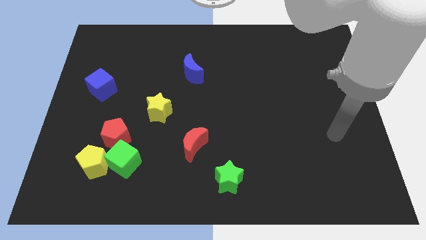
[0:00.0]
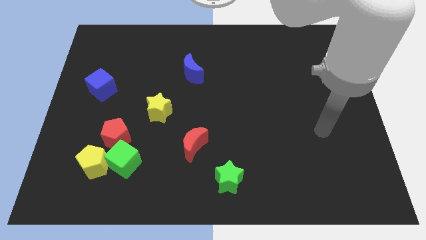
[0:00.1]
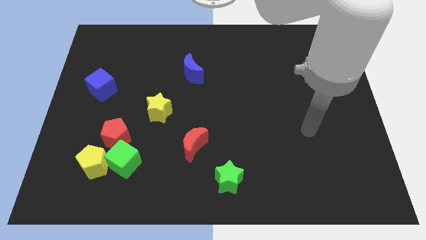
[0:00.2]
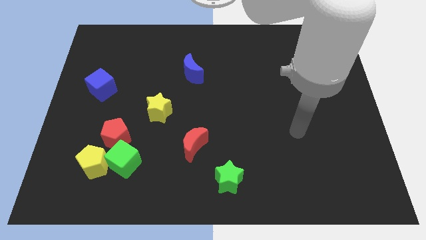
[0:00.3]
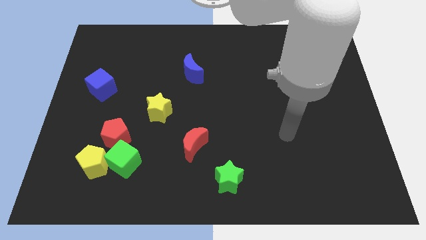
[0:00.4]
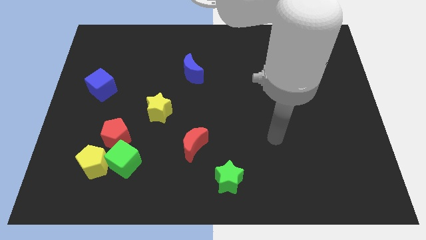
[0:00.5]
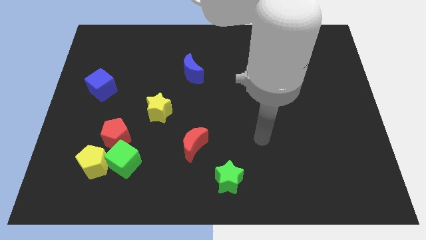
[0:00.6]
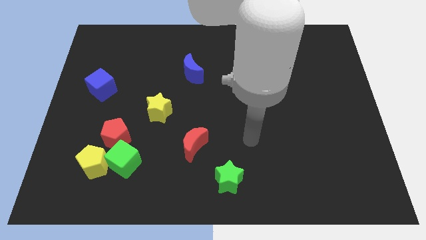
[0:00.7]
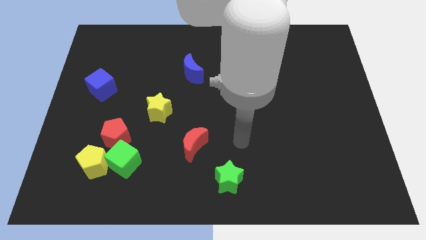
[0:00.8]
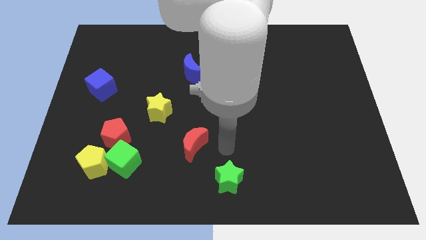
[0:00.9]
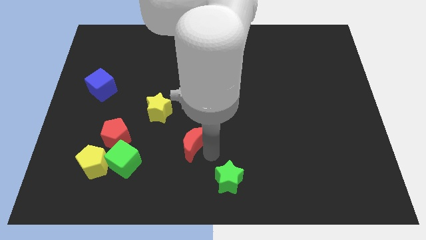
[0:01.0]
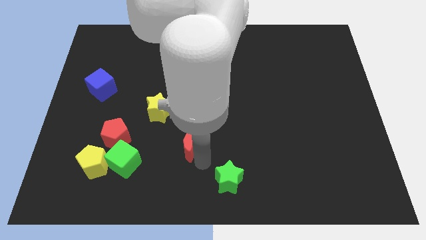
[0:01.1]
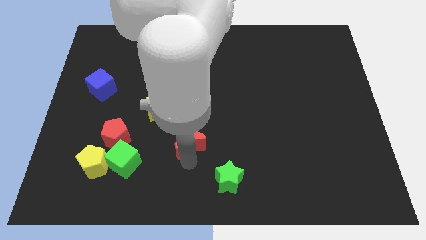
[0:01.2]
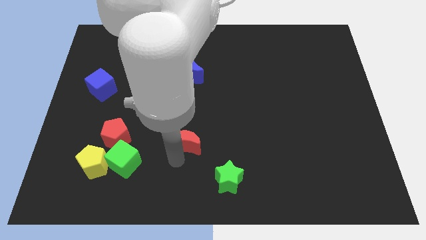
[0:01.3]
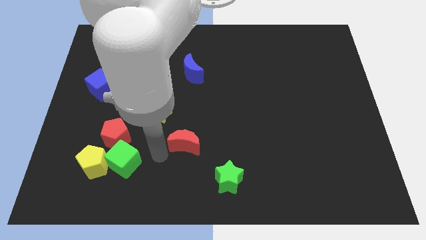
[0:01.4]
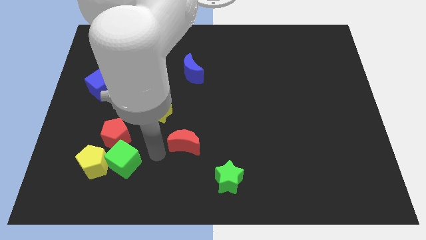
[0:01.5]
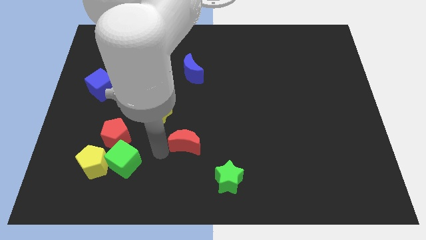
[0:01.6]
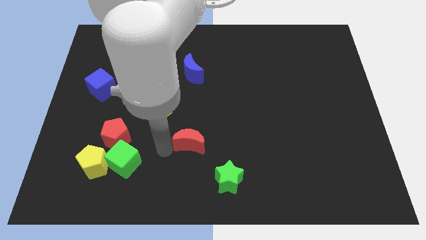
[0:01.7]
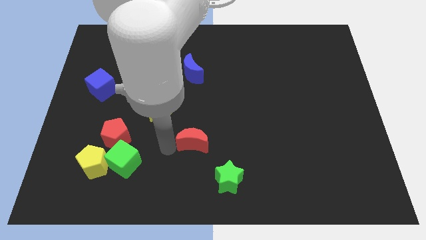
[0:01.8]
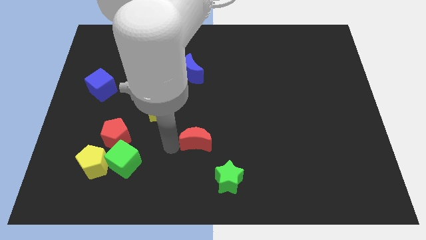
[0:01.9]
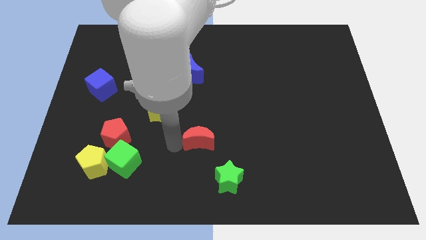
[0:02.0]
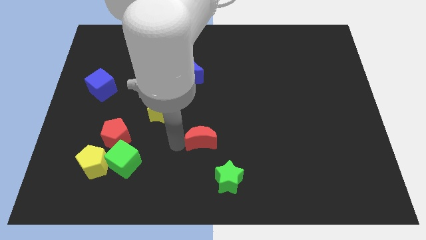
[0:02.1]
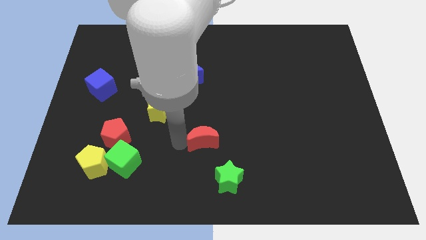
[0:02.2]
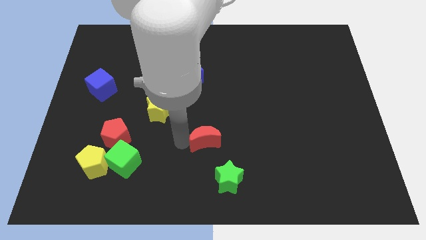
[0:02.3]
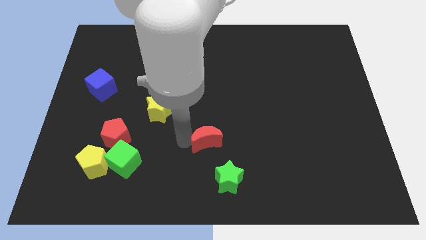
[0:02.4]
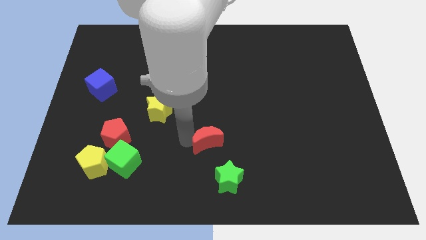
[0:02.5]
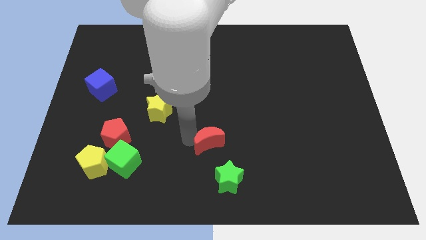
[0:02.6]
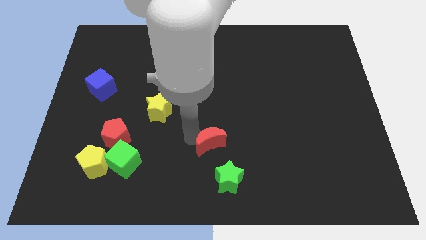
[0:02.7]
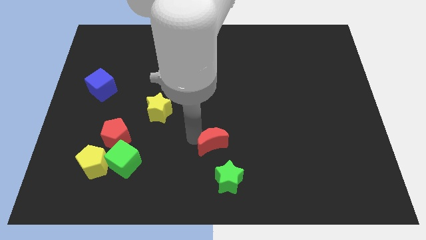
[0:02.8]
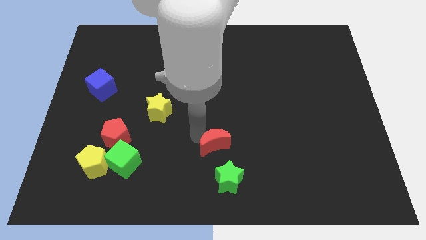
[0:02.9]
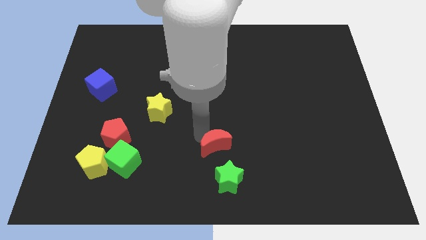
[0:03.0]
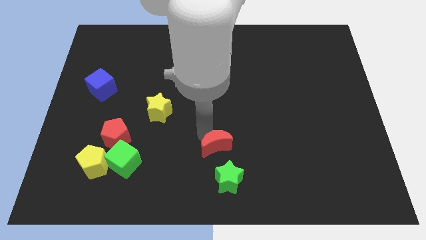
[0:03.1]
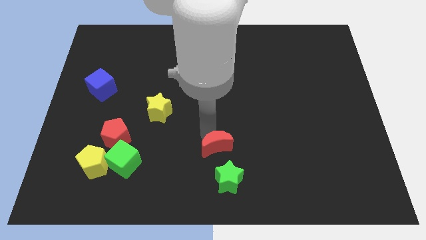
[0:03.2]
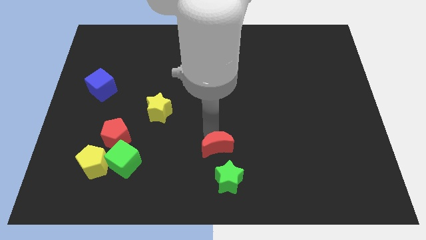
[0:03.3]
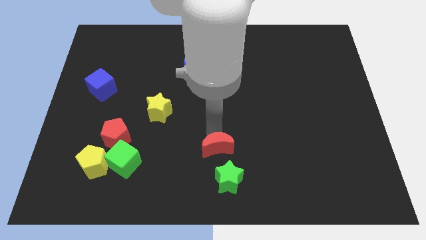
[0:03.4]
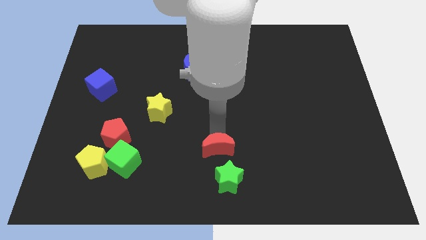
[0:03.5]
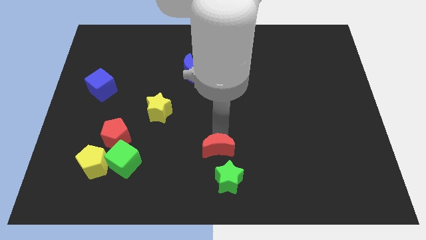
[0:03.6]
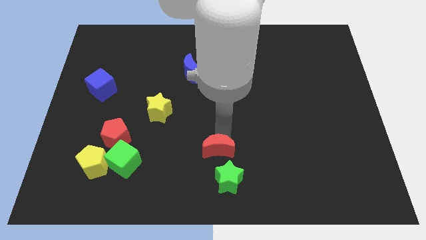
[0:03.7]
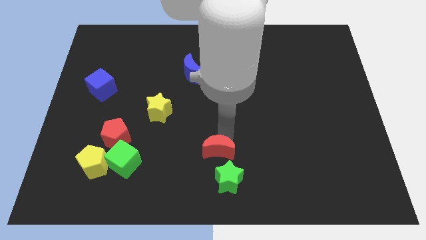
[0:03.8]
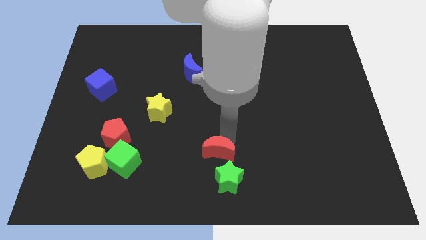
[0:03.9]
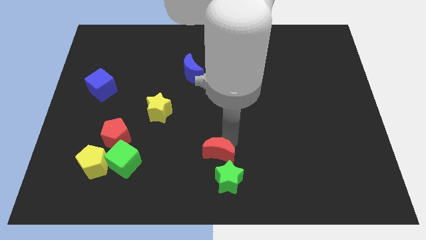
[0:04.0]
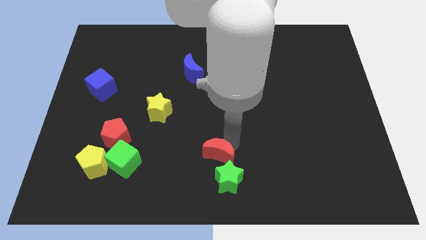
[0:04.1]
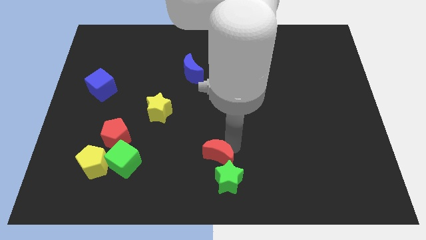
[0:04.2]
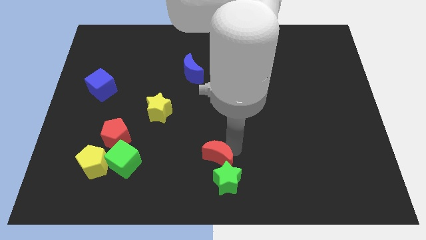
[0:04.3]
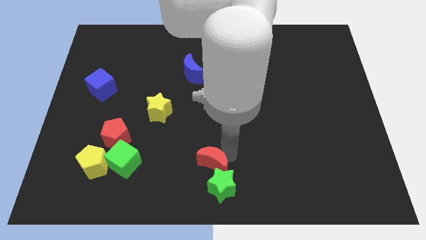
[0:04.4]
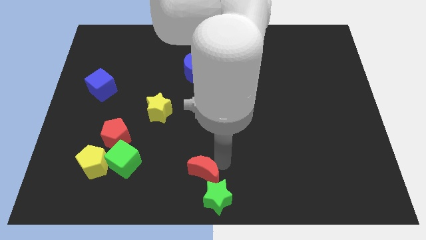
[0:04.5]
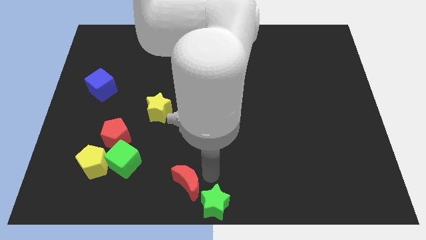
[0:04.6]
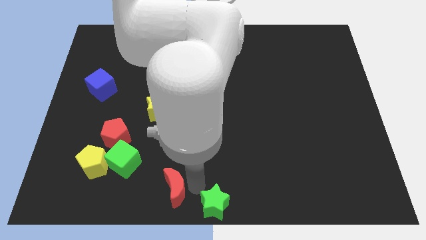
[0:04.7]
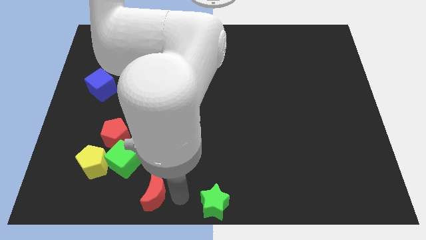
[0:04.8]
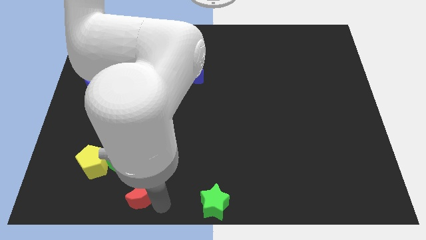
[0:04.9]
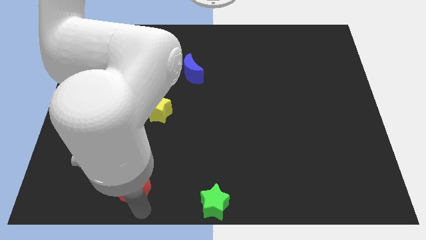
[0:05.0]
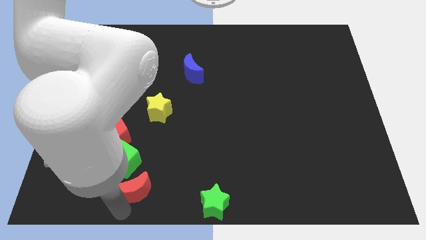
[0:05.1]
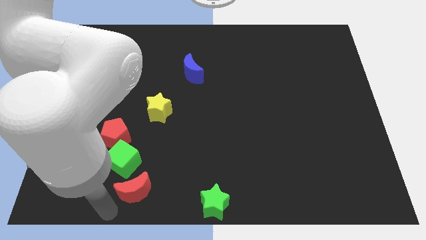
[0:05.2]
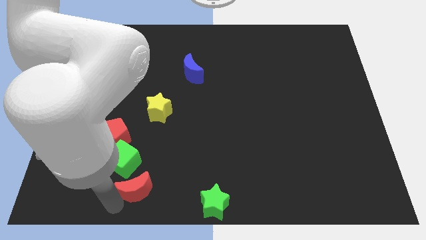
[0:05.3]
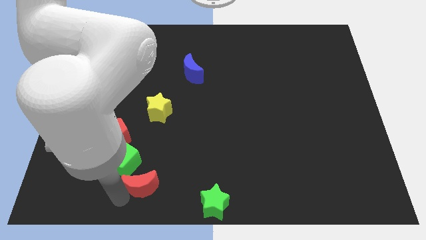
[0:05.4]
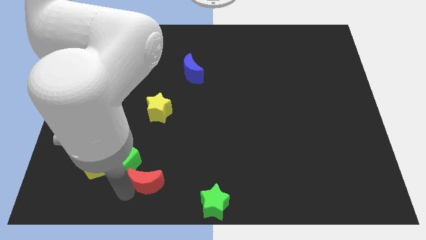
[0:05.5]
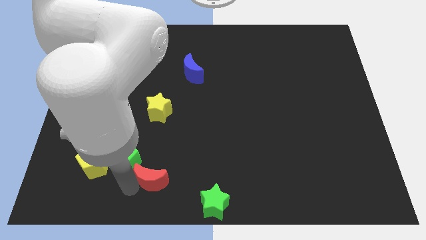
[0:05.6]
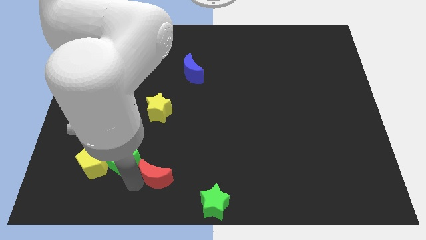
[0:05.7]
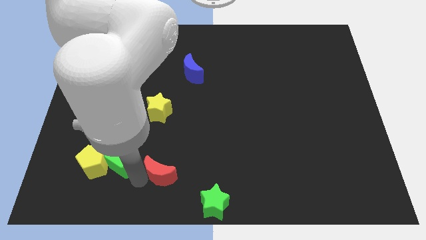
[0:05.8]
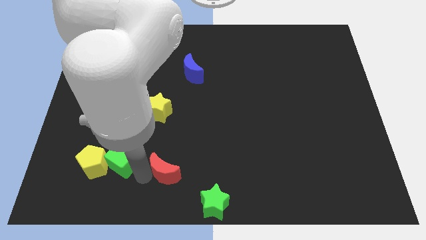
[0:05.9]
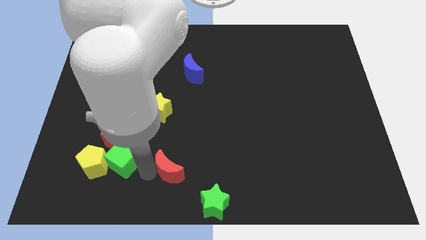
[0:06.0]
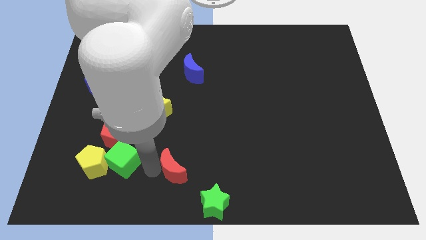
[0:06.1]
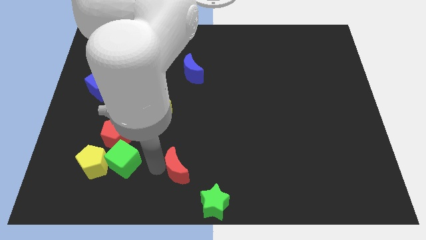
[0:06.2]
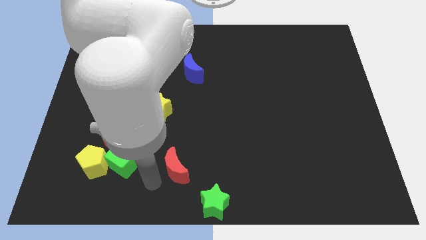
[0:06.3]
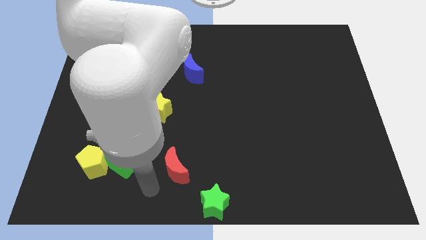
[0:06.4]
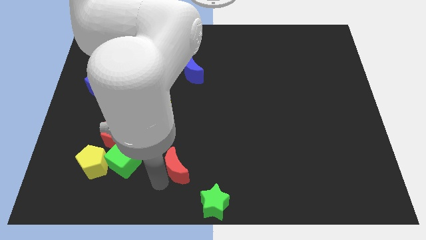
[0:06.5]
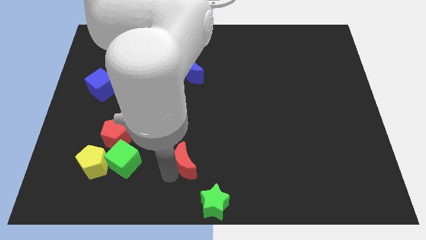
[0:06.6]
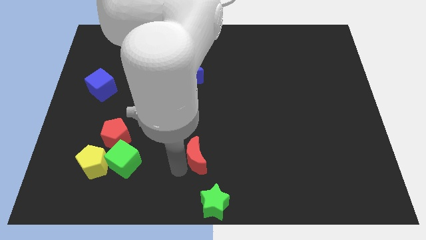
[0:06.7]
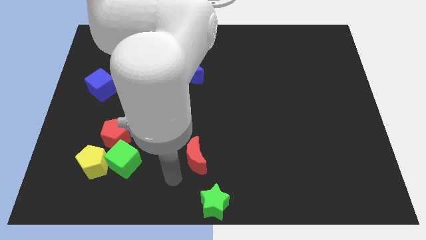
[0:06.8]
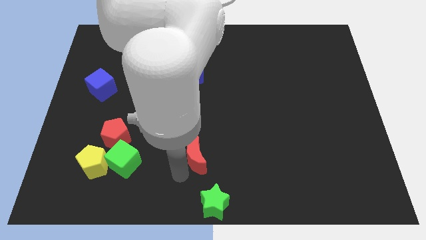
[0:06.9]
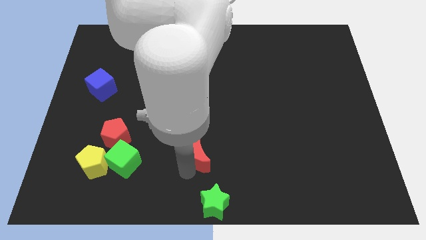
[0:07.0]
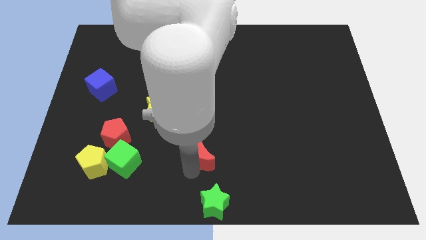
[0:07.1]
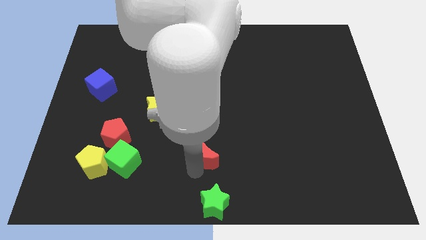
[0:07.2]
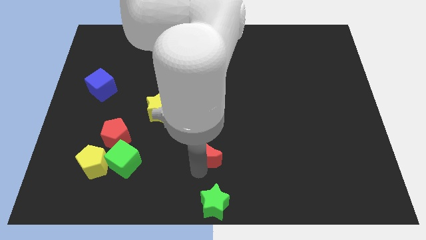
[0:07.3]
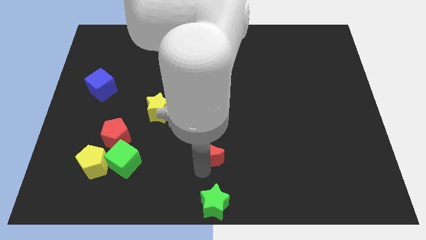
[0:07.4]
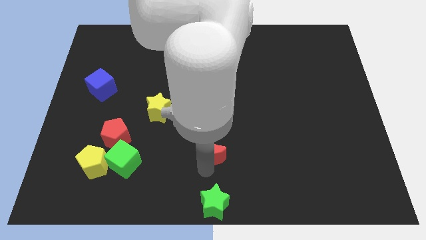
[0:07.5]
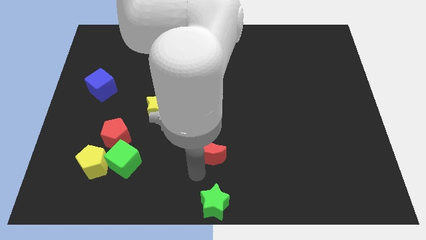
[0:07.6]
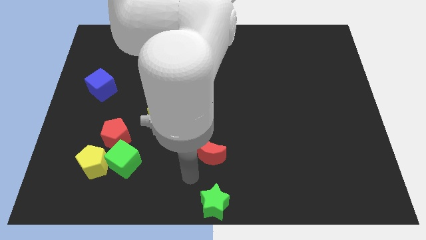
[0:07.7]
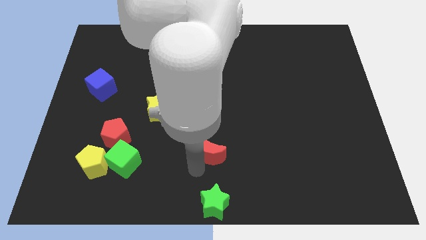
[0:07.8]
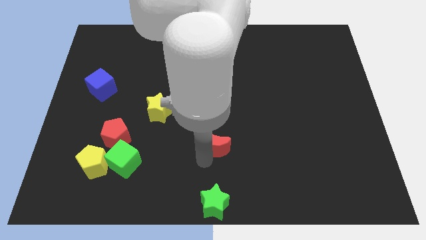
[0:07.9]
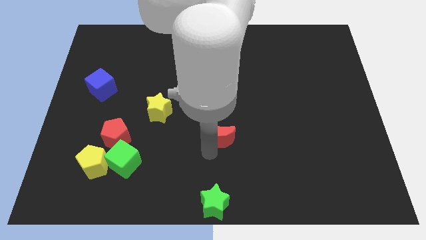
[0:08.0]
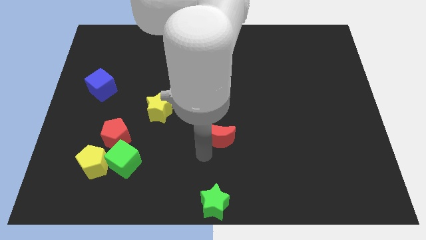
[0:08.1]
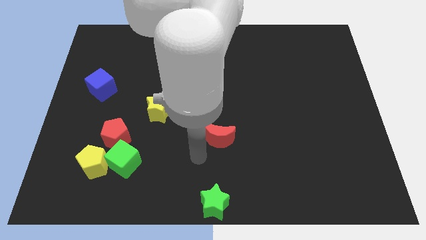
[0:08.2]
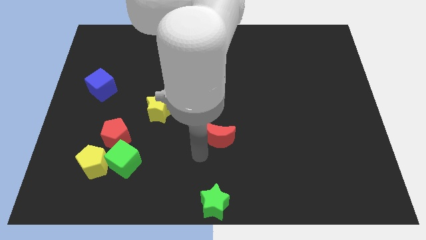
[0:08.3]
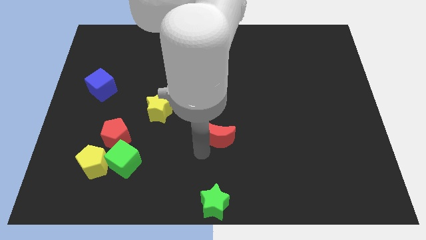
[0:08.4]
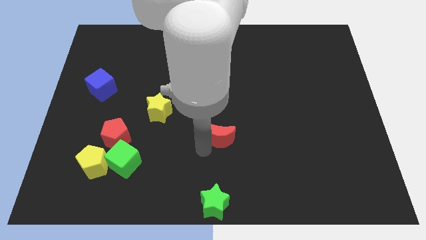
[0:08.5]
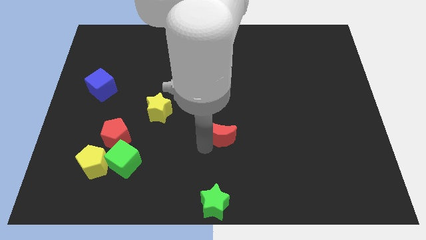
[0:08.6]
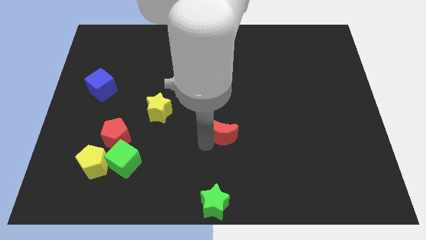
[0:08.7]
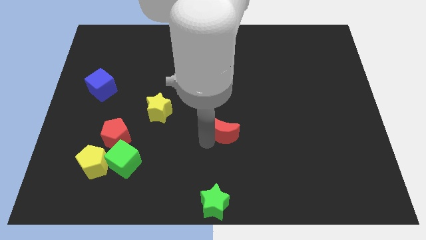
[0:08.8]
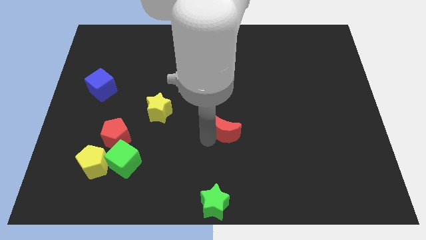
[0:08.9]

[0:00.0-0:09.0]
slightly move the red moon upwards and then right
